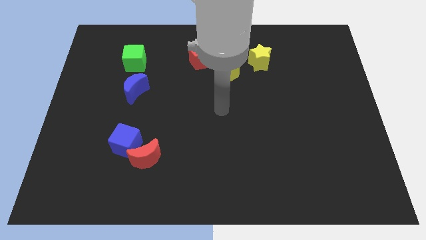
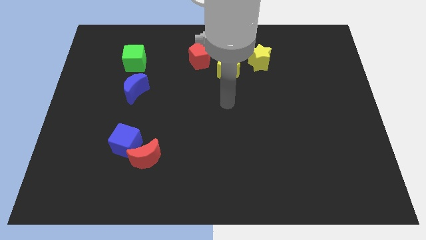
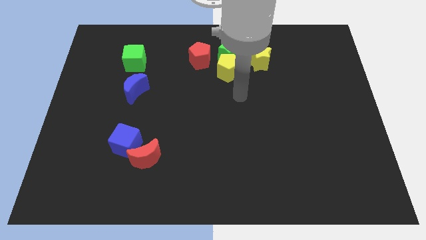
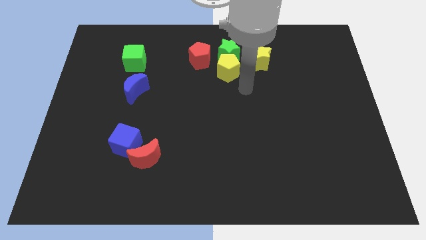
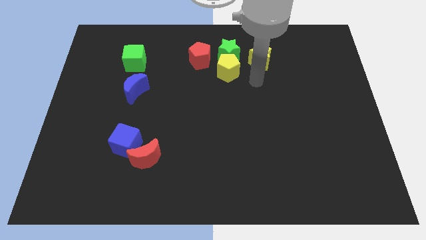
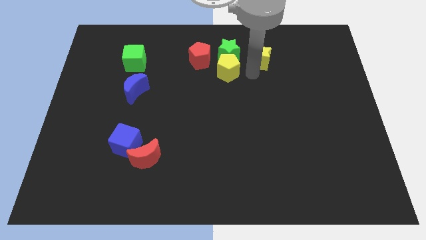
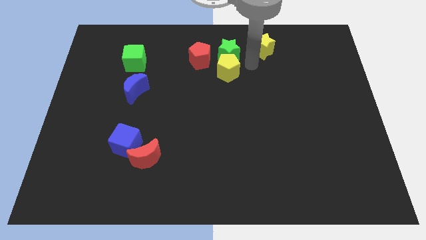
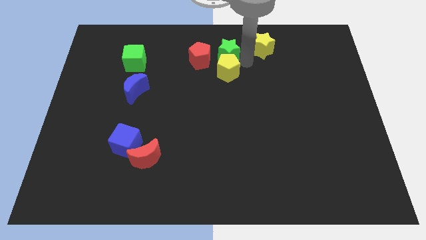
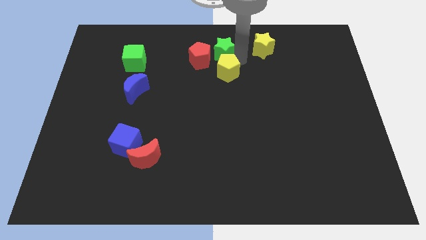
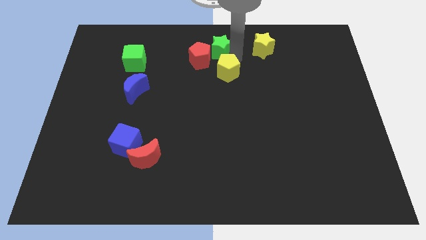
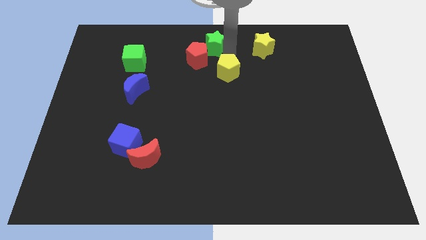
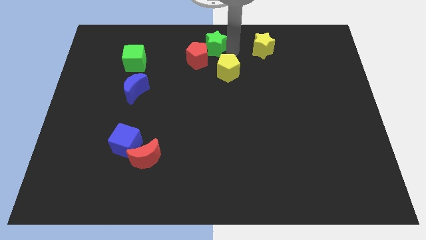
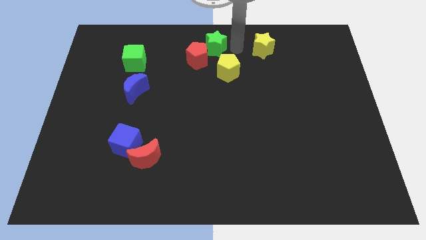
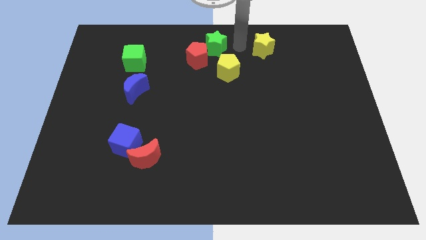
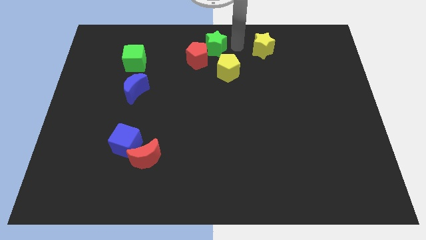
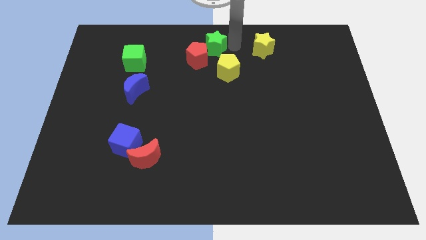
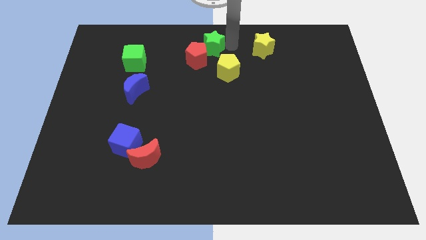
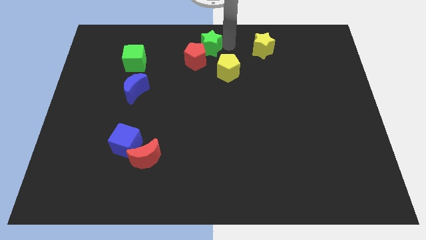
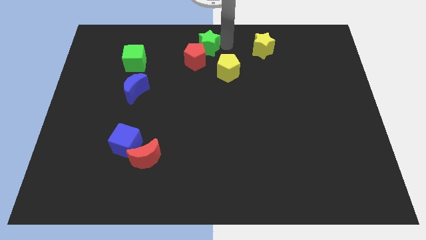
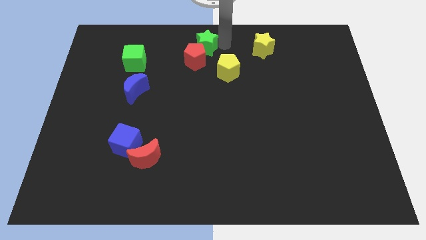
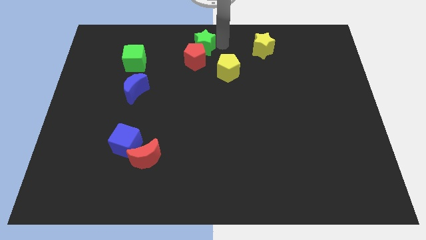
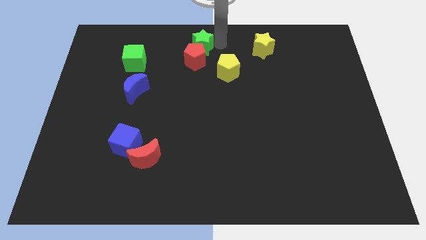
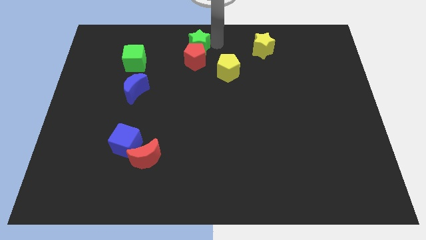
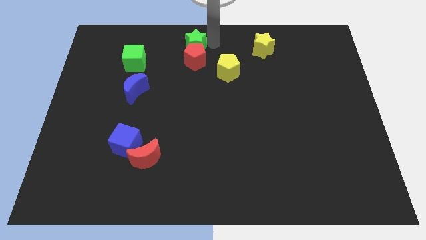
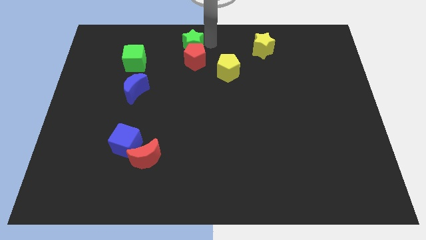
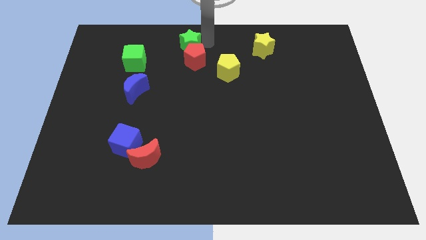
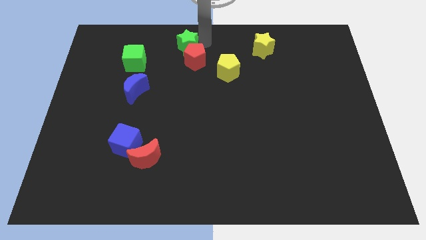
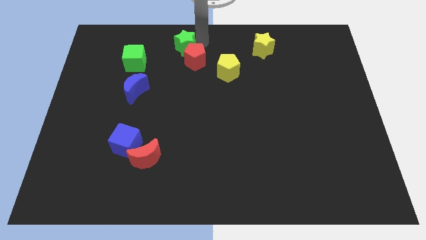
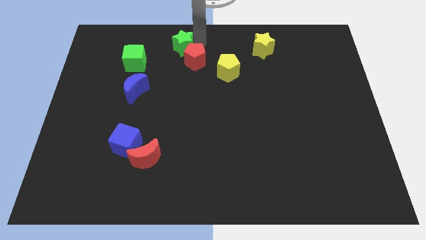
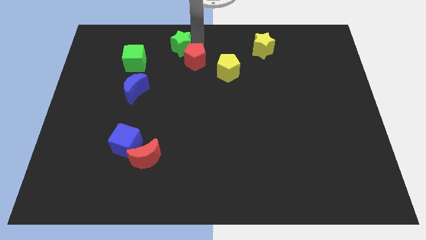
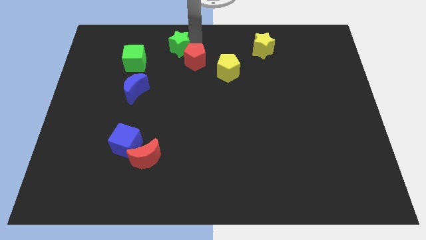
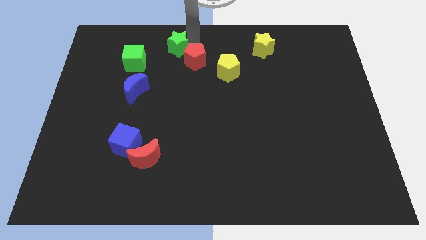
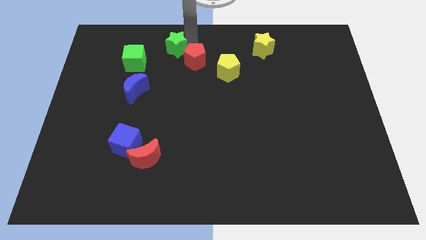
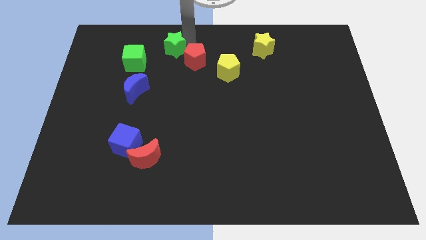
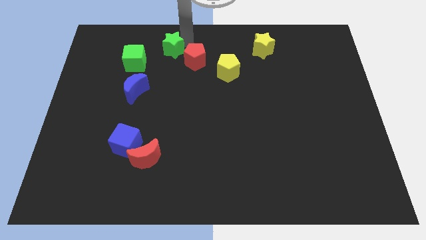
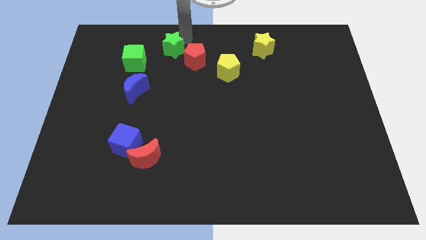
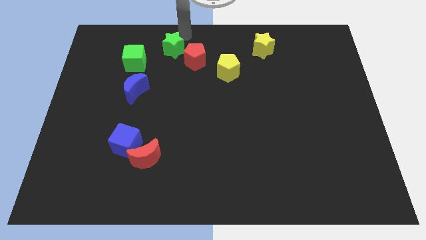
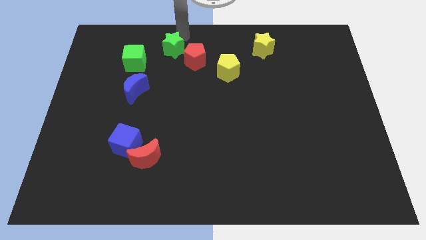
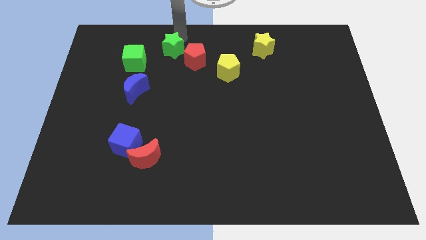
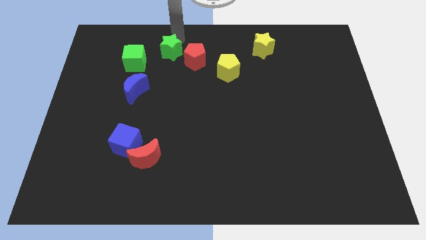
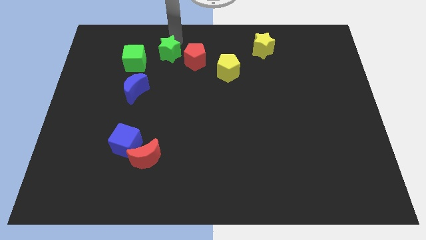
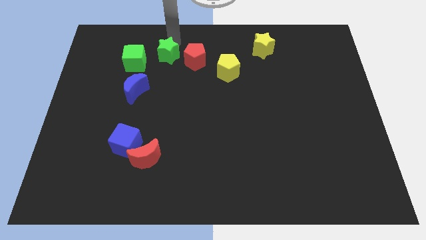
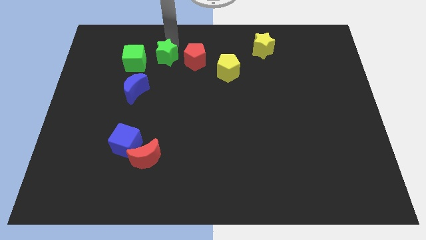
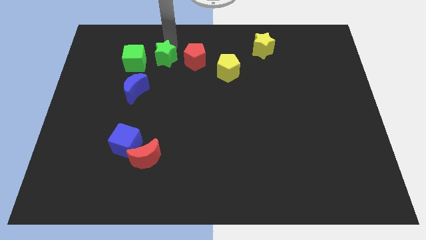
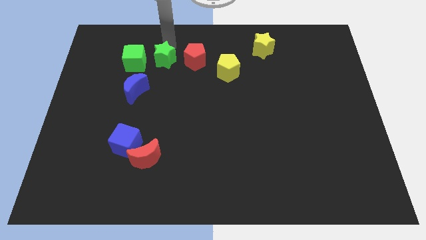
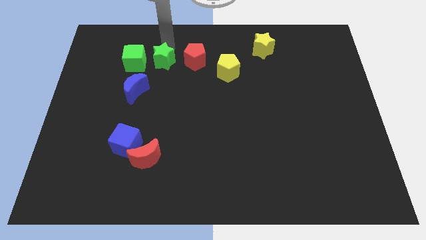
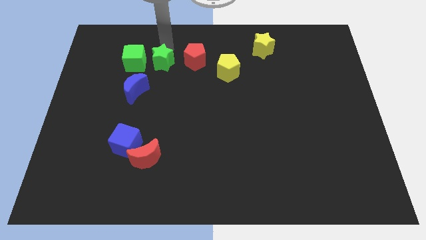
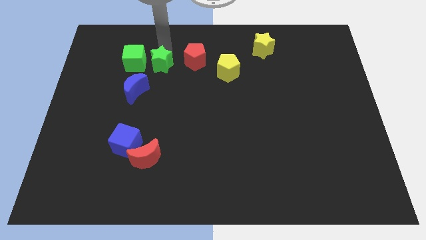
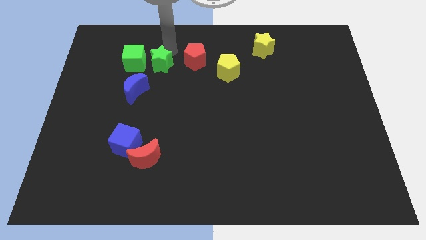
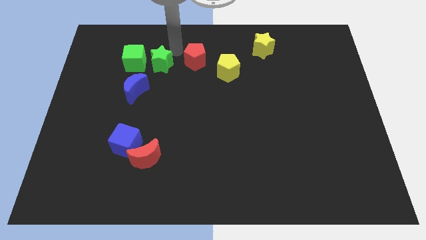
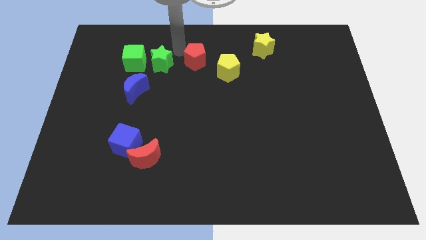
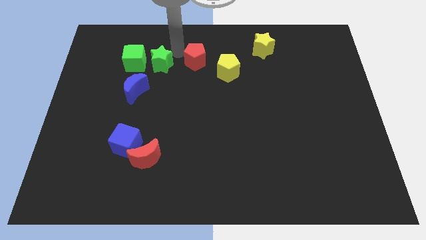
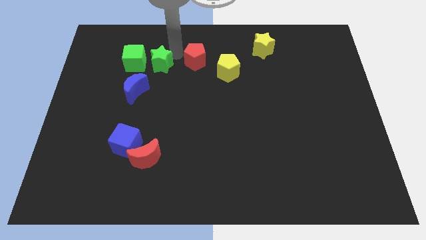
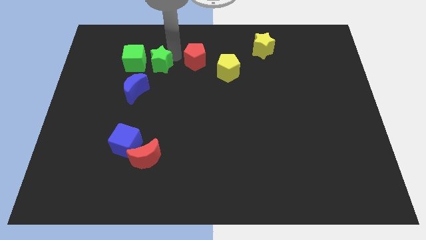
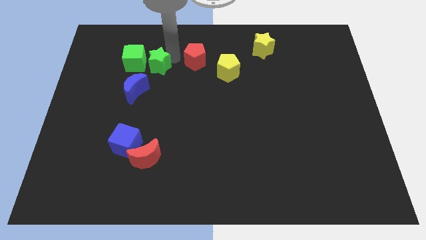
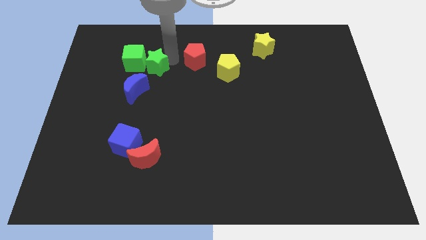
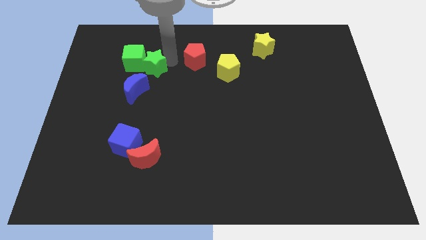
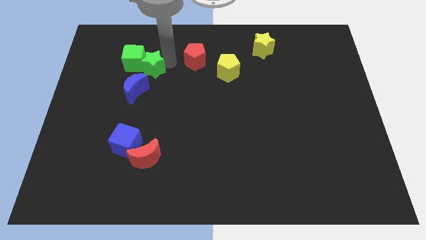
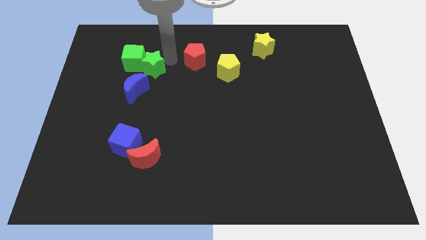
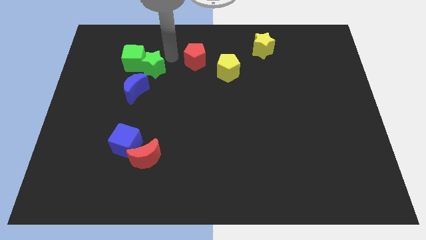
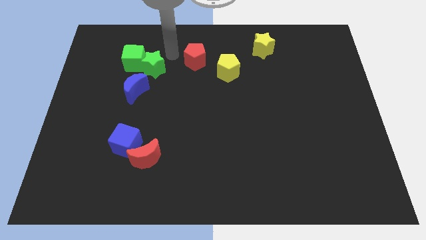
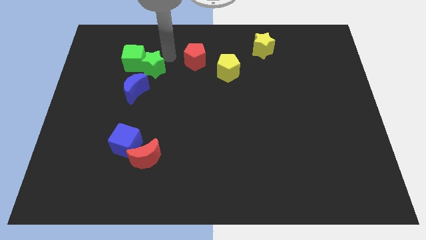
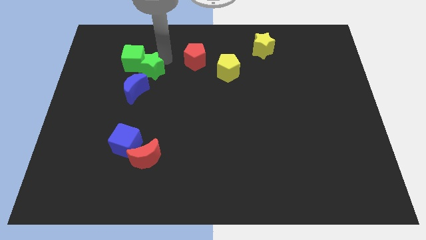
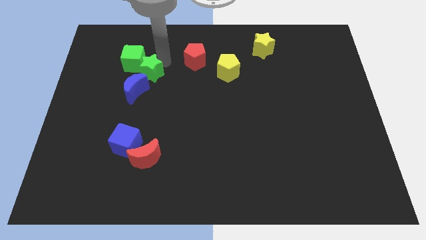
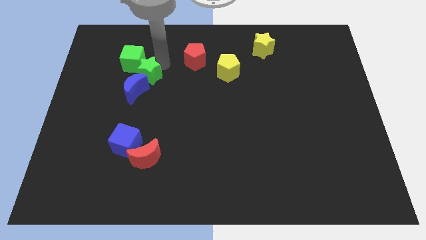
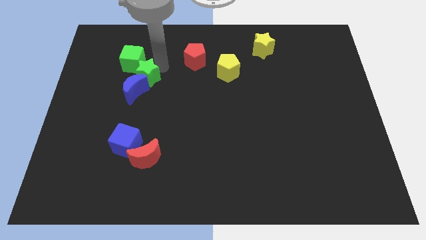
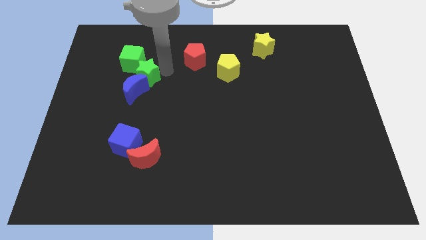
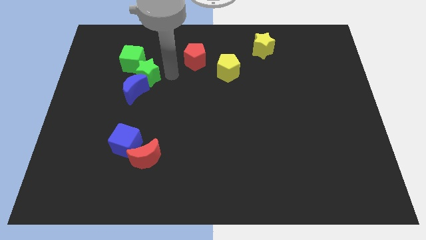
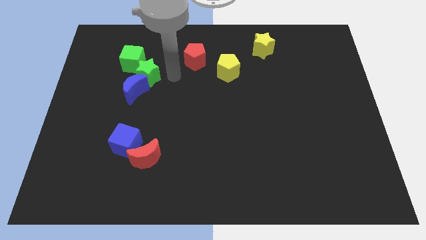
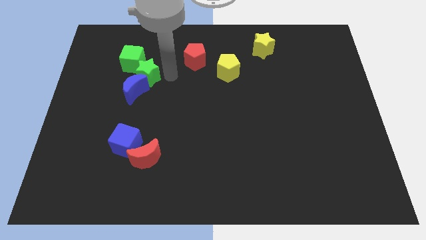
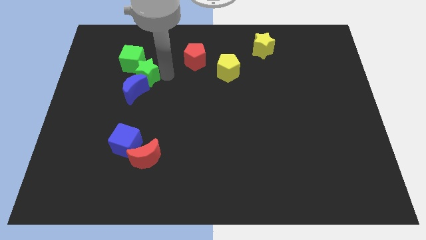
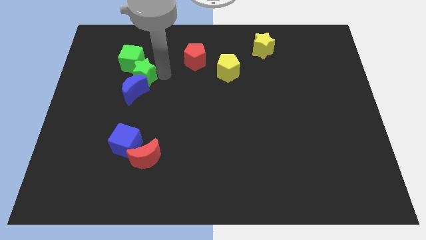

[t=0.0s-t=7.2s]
slide the green star diagonally up and to the left of the blue moon
